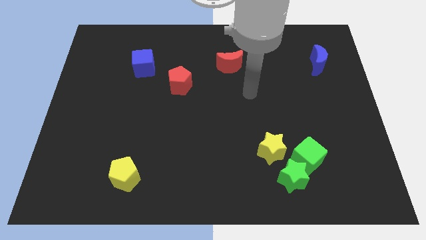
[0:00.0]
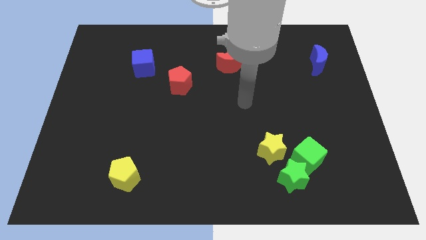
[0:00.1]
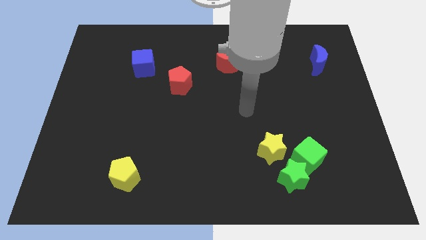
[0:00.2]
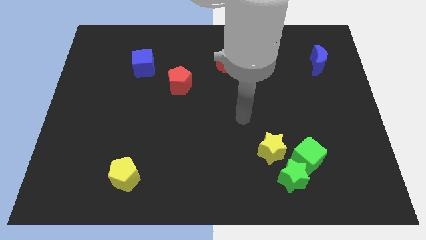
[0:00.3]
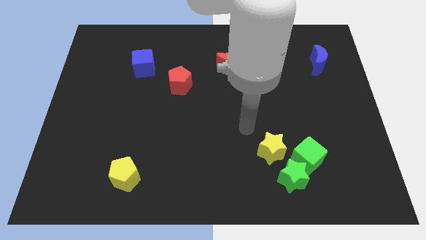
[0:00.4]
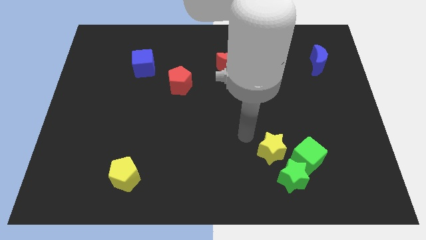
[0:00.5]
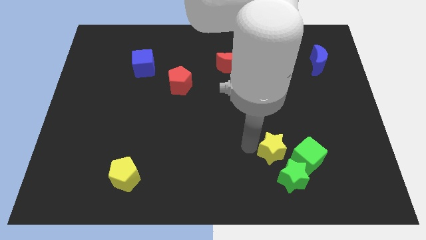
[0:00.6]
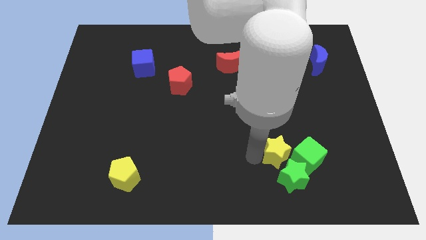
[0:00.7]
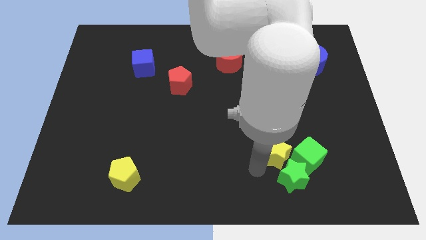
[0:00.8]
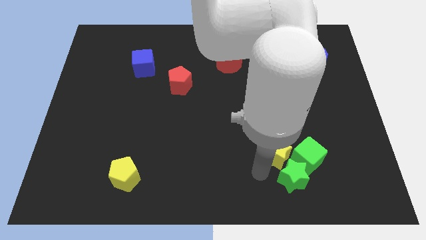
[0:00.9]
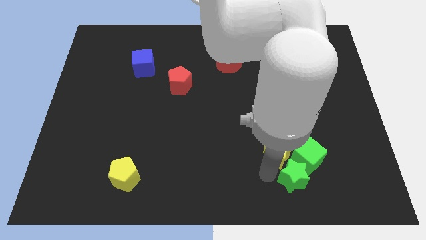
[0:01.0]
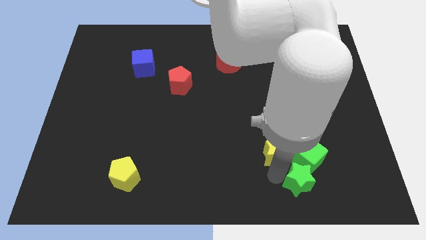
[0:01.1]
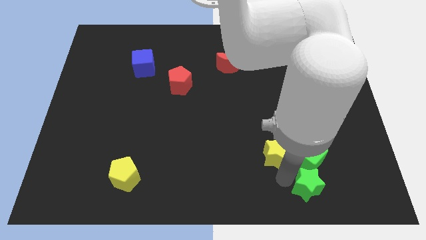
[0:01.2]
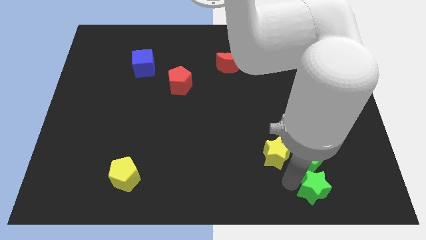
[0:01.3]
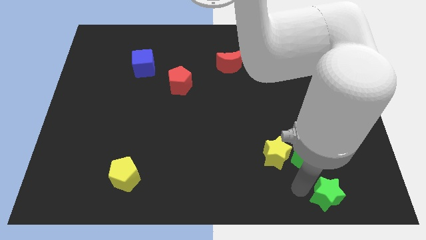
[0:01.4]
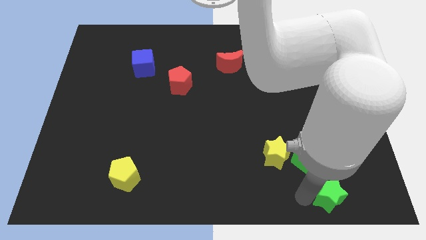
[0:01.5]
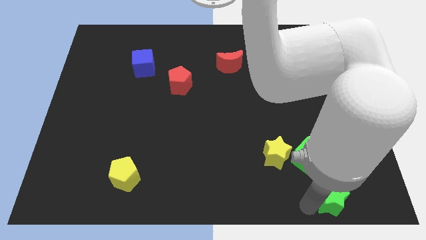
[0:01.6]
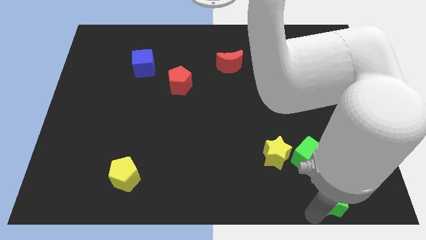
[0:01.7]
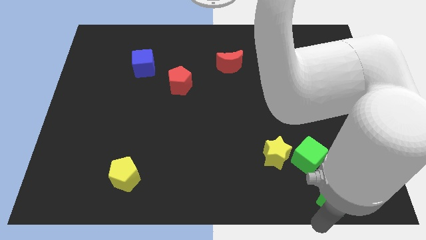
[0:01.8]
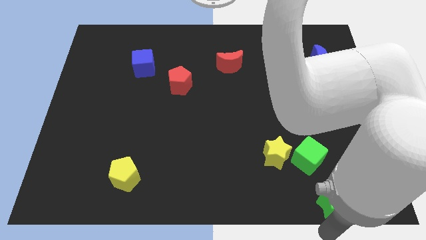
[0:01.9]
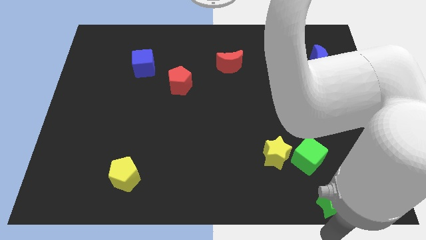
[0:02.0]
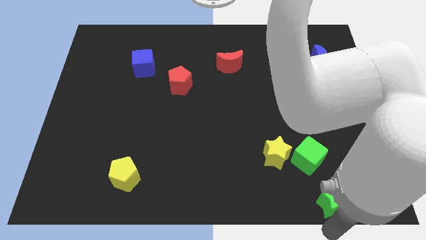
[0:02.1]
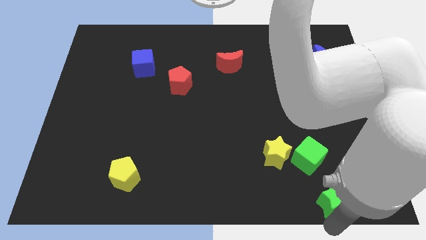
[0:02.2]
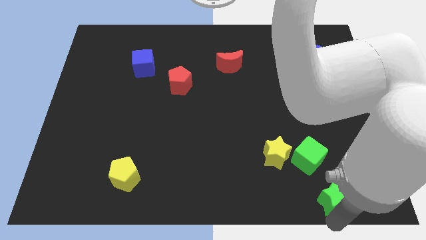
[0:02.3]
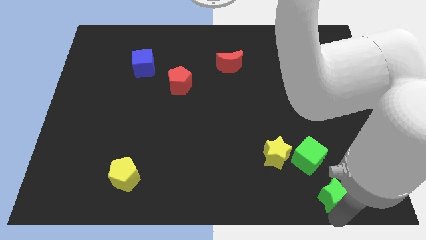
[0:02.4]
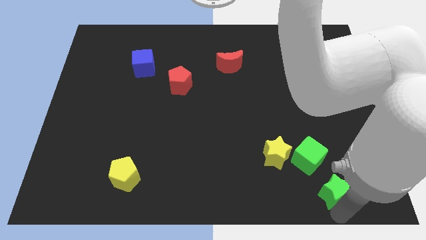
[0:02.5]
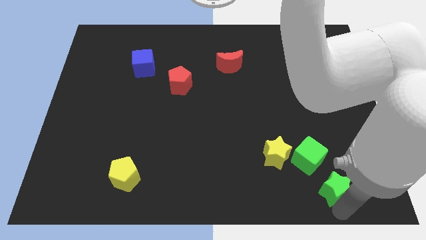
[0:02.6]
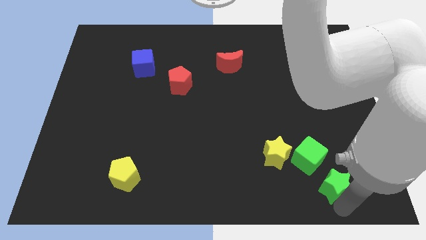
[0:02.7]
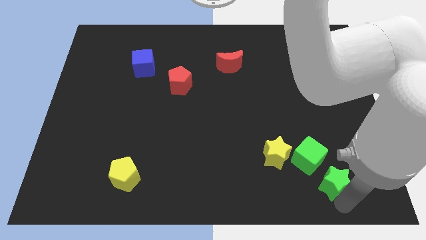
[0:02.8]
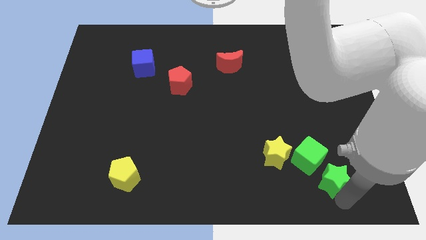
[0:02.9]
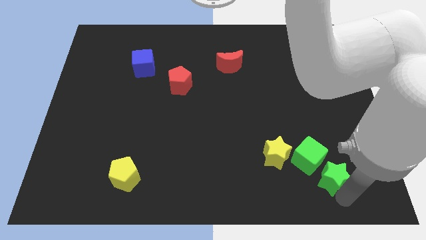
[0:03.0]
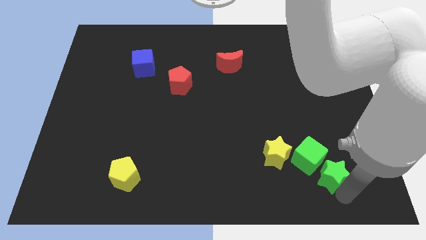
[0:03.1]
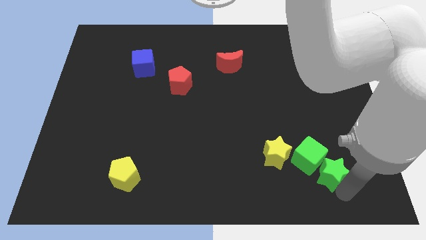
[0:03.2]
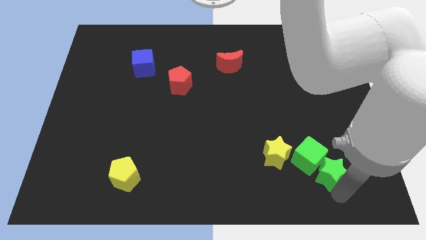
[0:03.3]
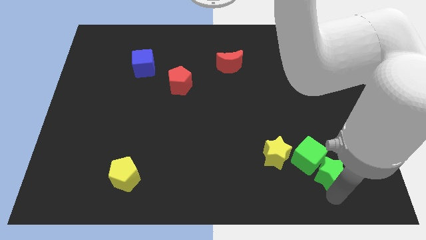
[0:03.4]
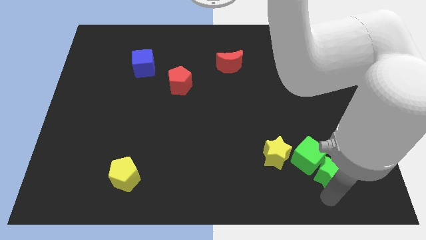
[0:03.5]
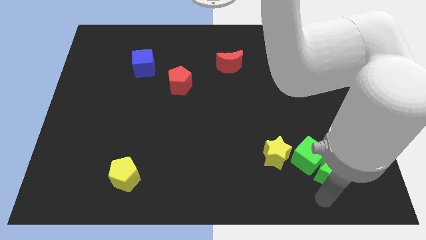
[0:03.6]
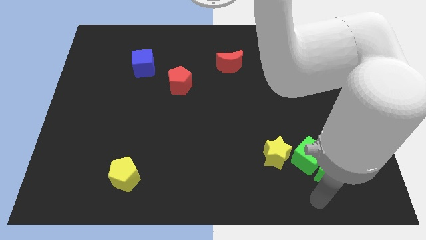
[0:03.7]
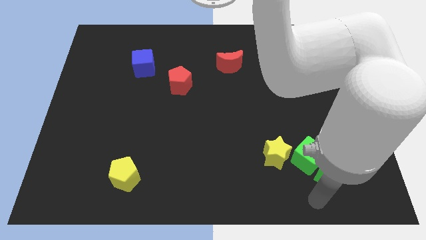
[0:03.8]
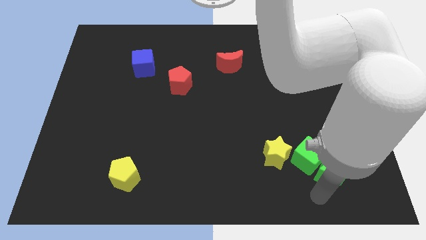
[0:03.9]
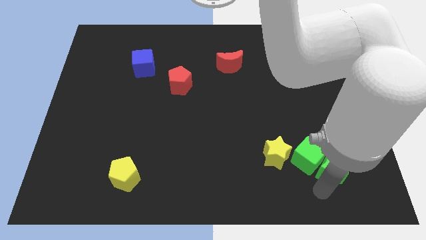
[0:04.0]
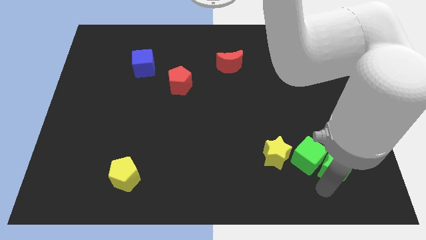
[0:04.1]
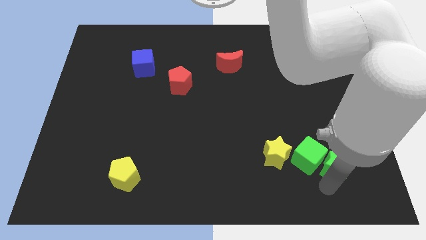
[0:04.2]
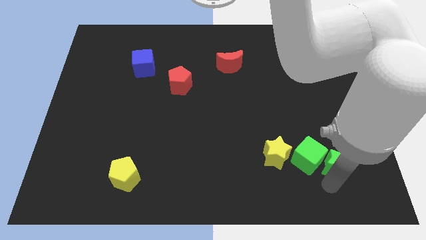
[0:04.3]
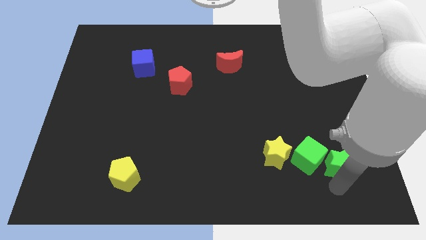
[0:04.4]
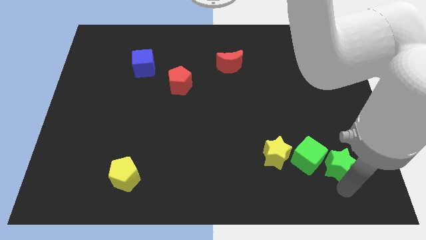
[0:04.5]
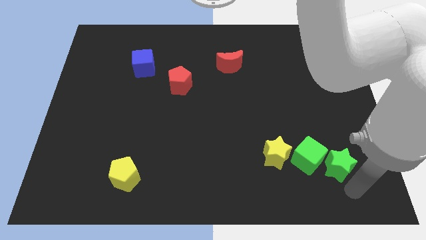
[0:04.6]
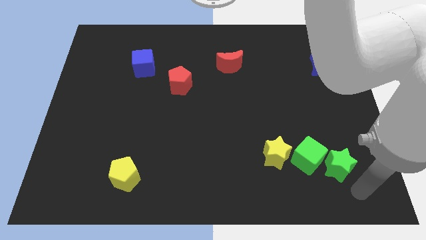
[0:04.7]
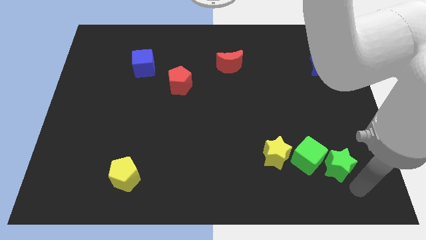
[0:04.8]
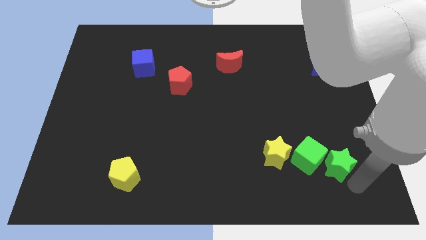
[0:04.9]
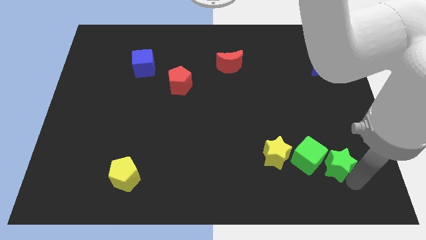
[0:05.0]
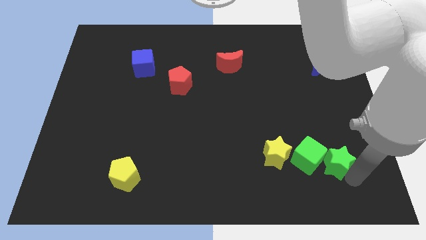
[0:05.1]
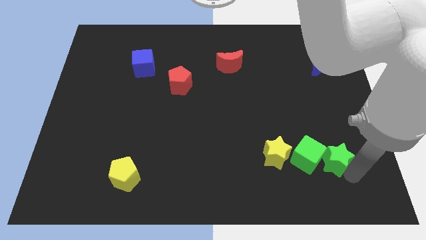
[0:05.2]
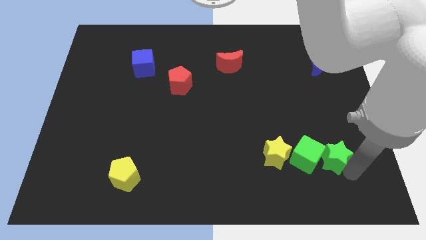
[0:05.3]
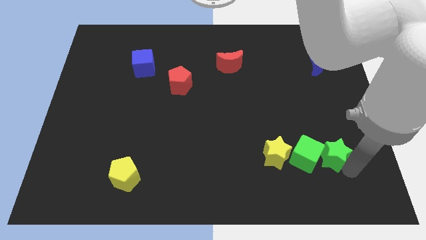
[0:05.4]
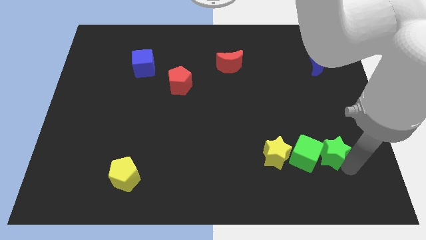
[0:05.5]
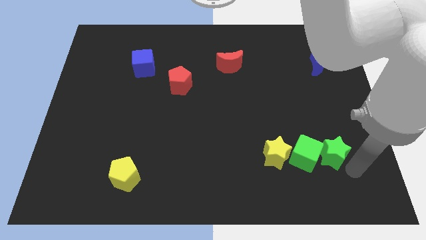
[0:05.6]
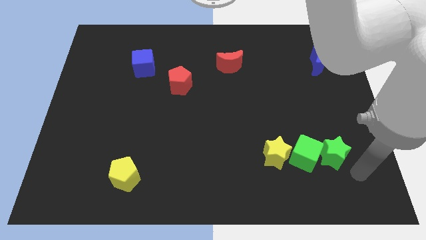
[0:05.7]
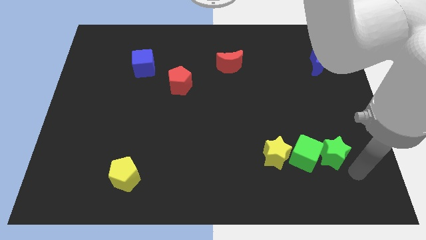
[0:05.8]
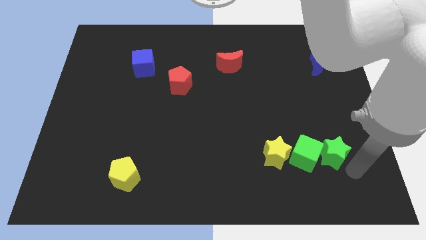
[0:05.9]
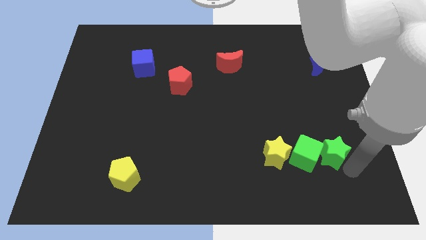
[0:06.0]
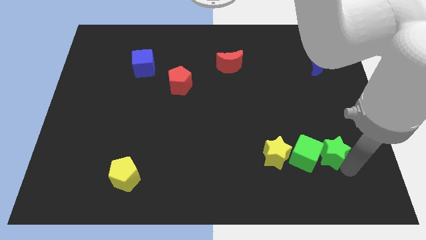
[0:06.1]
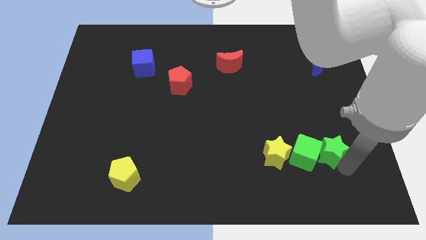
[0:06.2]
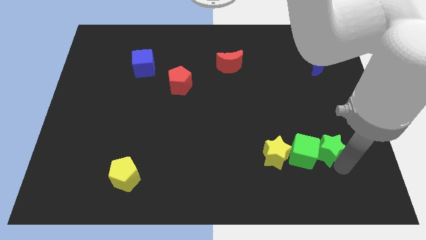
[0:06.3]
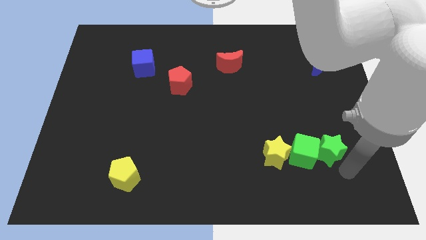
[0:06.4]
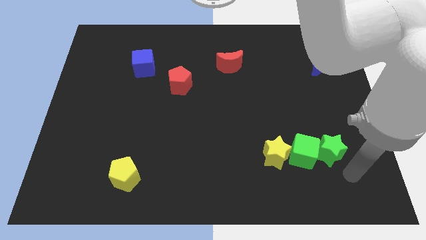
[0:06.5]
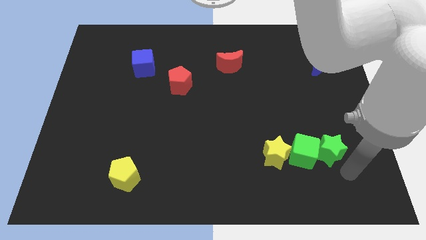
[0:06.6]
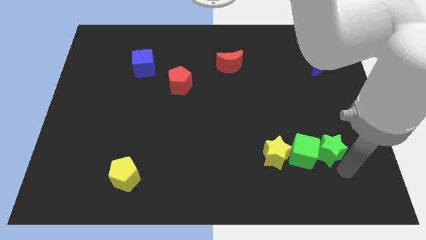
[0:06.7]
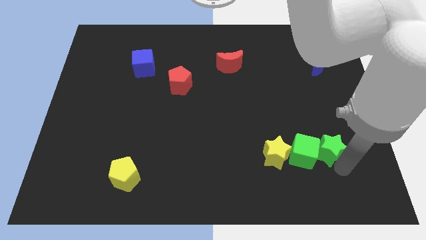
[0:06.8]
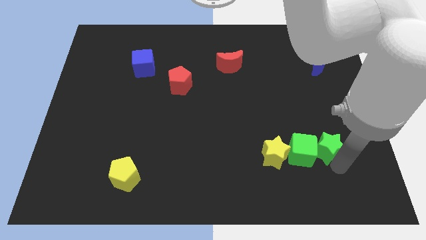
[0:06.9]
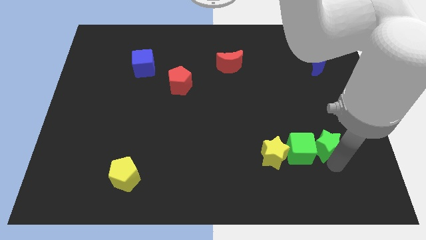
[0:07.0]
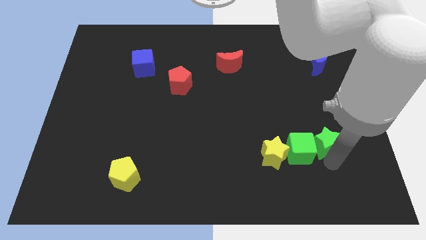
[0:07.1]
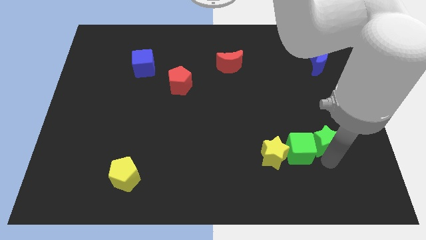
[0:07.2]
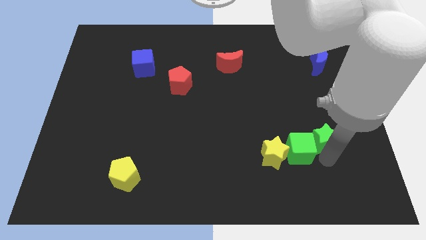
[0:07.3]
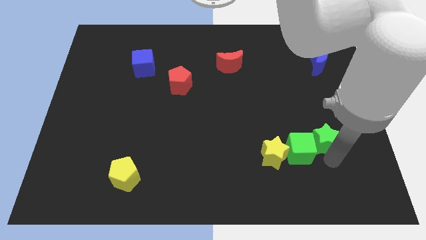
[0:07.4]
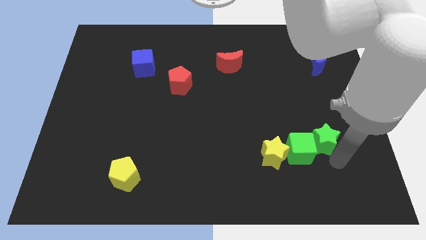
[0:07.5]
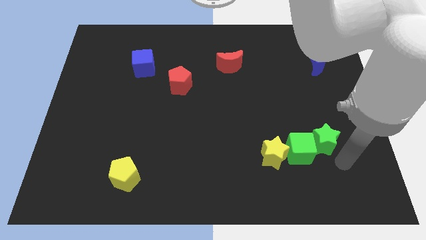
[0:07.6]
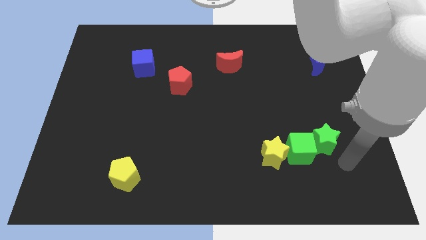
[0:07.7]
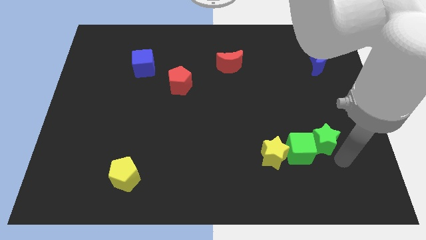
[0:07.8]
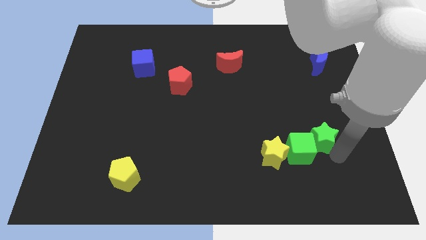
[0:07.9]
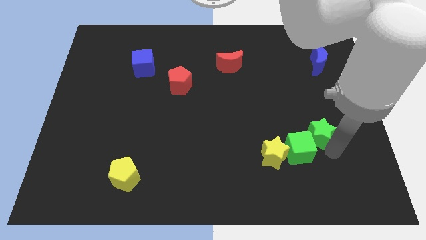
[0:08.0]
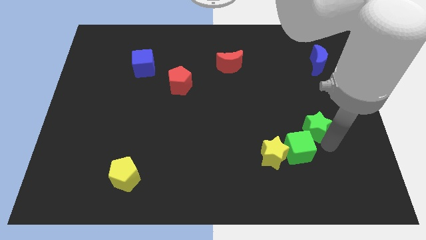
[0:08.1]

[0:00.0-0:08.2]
put the green star to the top right side of the yellow star

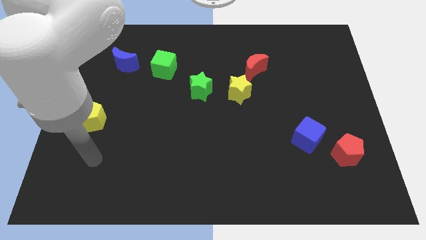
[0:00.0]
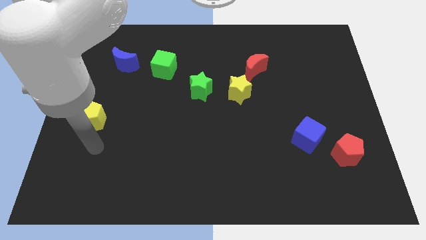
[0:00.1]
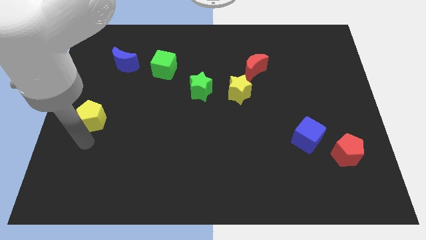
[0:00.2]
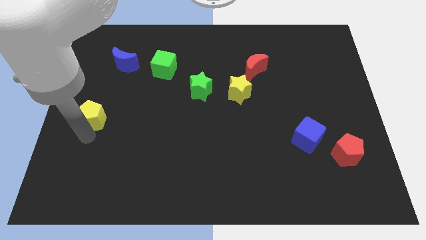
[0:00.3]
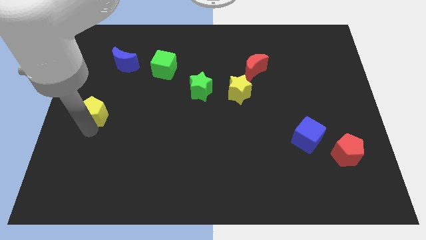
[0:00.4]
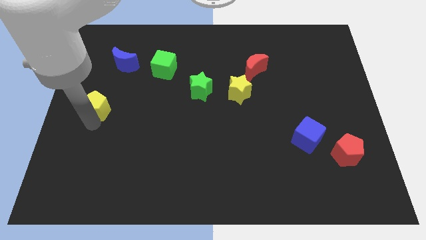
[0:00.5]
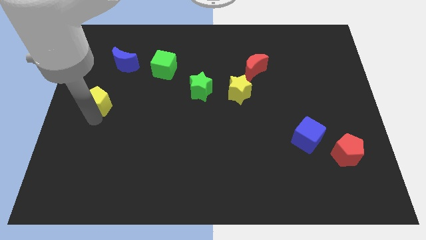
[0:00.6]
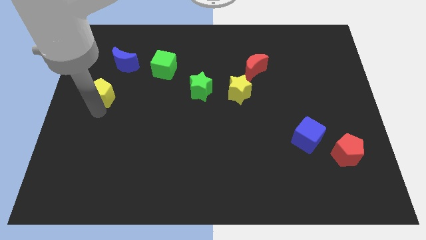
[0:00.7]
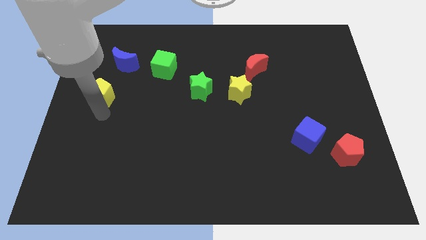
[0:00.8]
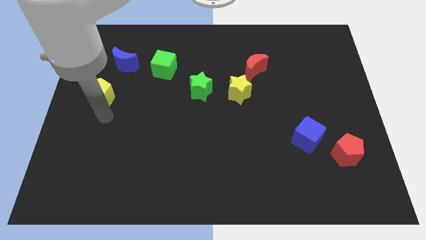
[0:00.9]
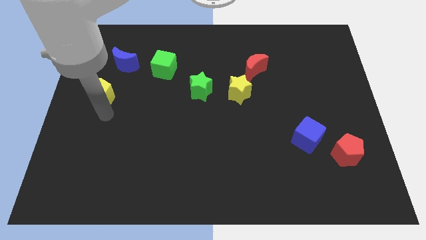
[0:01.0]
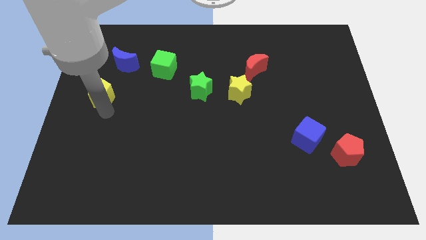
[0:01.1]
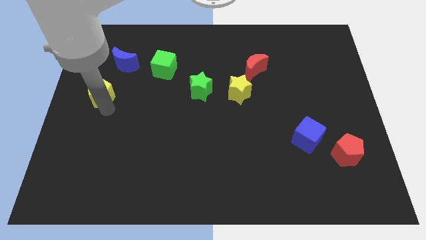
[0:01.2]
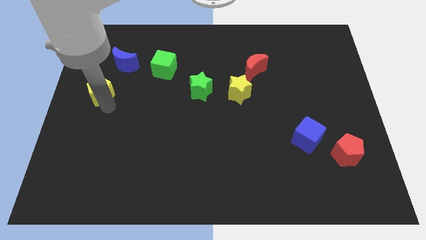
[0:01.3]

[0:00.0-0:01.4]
put the yellow pentagon diagonally down and to the left of the blue moon
